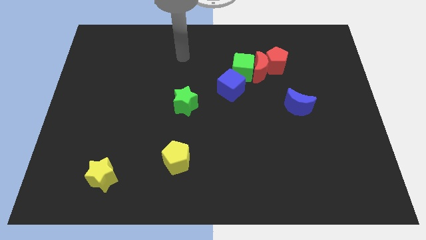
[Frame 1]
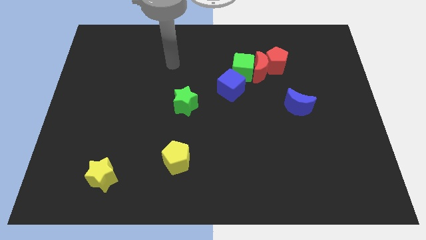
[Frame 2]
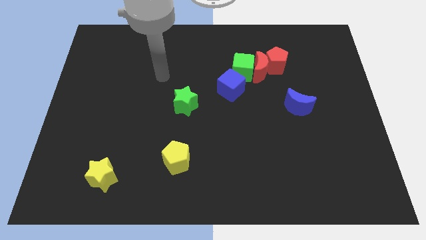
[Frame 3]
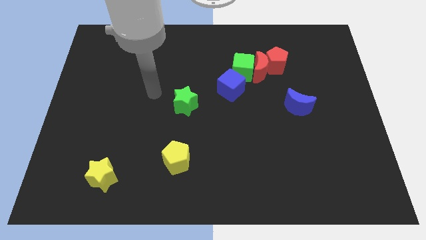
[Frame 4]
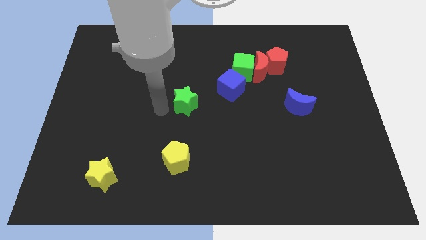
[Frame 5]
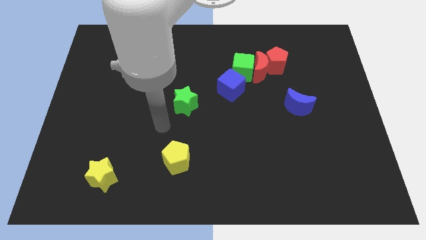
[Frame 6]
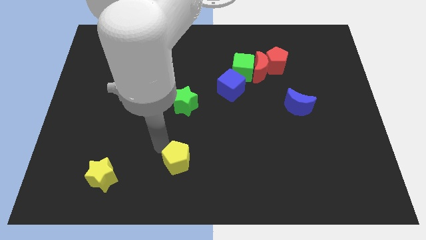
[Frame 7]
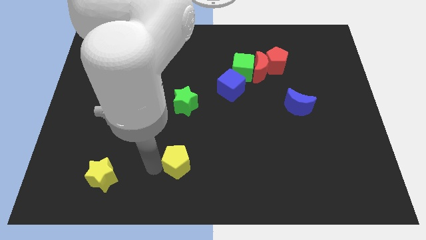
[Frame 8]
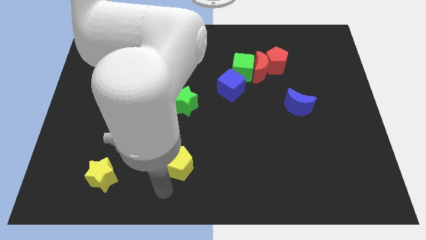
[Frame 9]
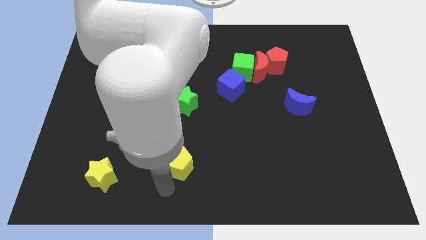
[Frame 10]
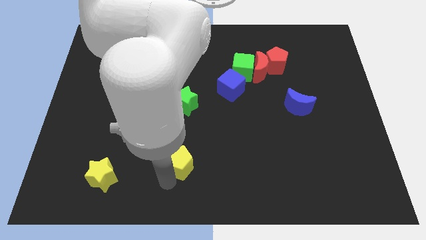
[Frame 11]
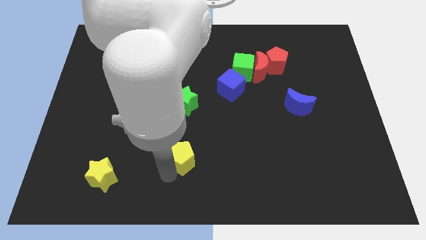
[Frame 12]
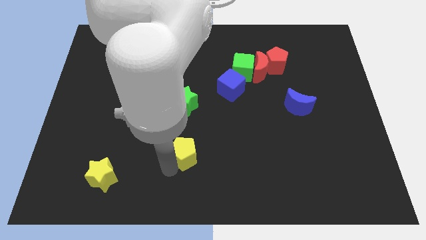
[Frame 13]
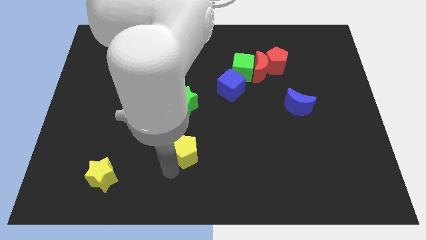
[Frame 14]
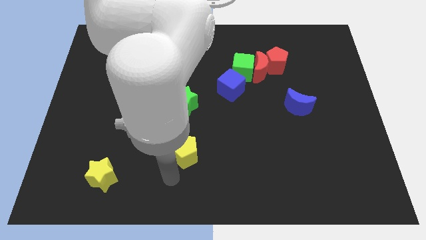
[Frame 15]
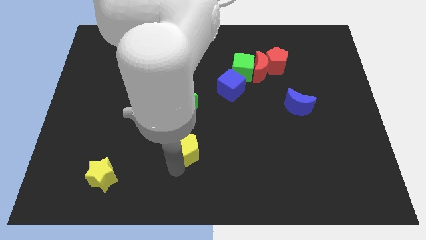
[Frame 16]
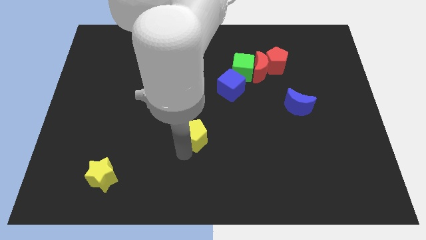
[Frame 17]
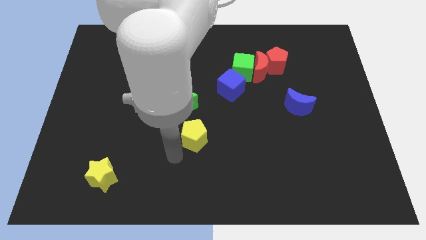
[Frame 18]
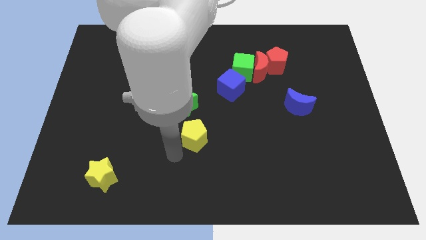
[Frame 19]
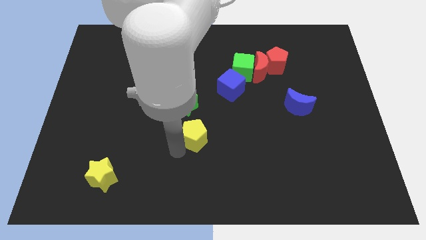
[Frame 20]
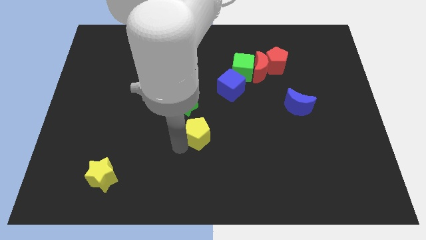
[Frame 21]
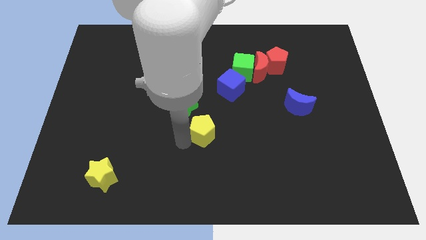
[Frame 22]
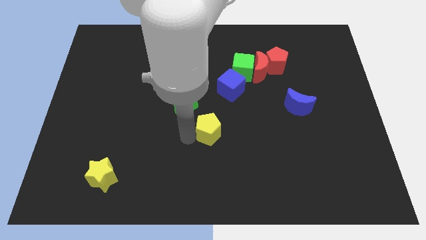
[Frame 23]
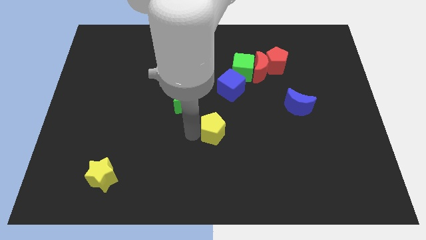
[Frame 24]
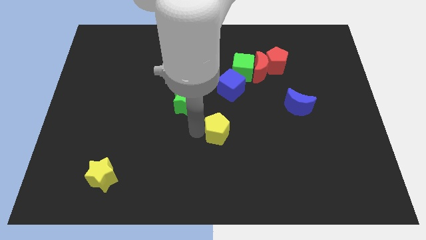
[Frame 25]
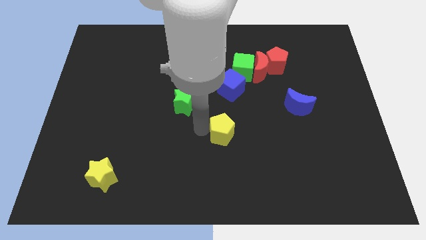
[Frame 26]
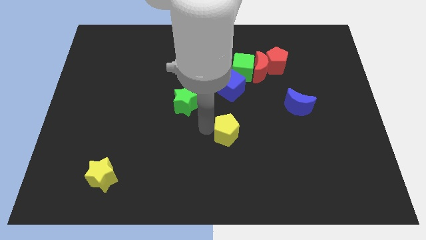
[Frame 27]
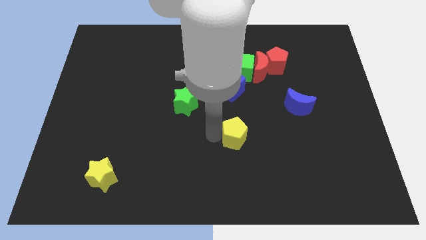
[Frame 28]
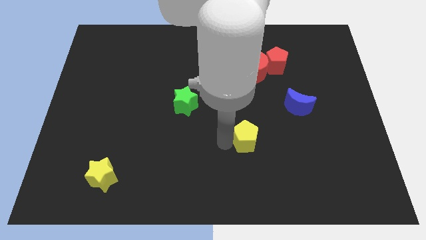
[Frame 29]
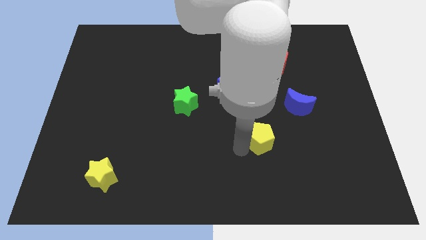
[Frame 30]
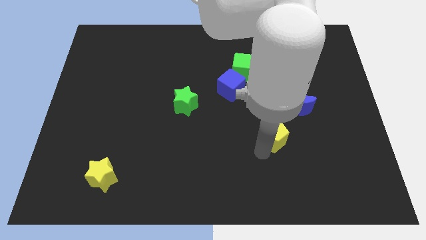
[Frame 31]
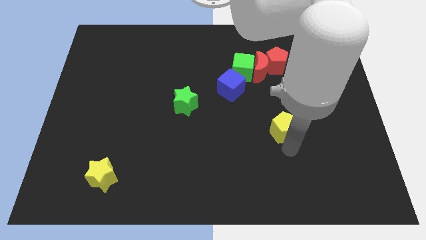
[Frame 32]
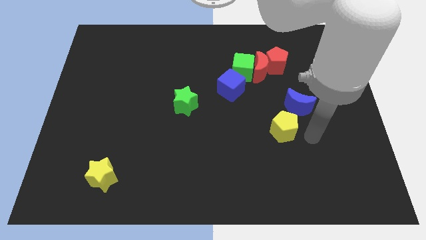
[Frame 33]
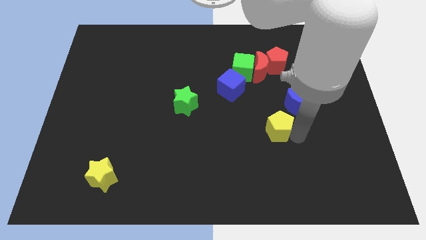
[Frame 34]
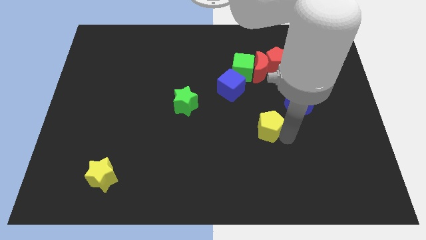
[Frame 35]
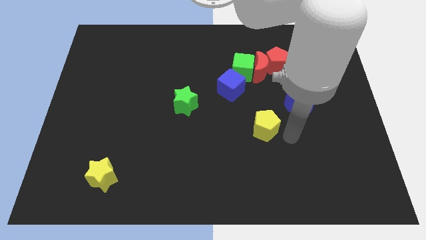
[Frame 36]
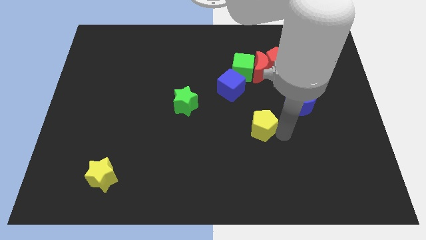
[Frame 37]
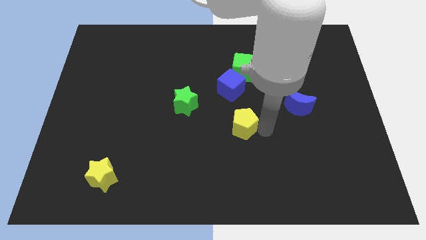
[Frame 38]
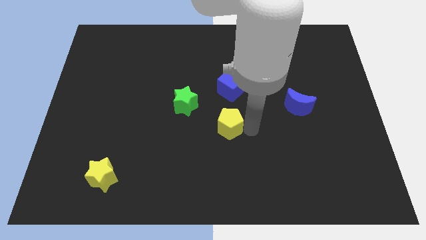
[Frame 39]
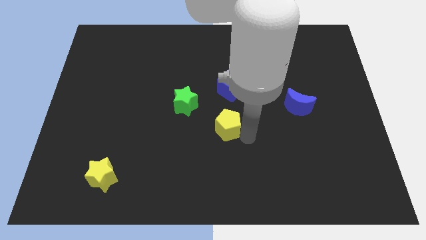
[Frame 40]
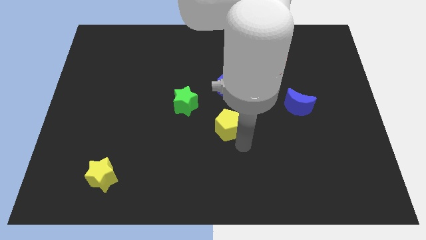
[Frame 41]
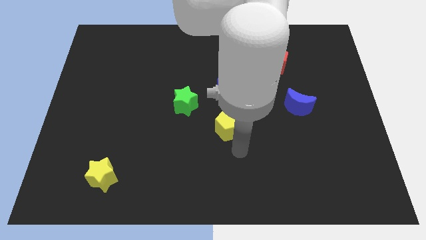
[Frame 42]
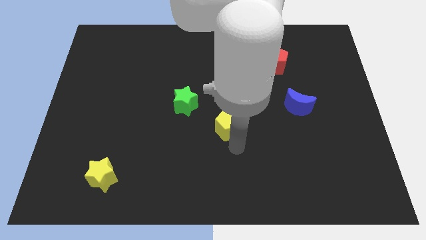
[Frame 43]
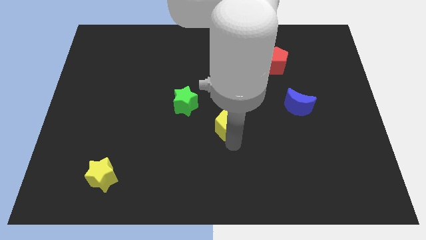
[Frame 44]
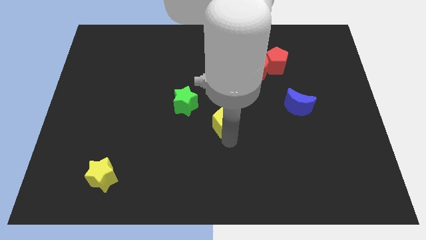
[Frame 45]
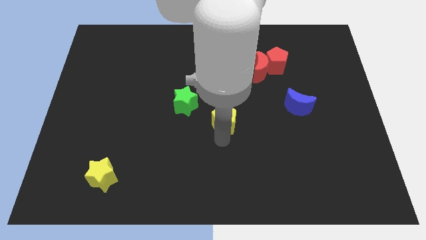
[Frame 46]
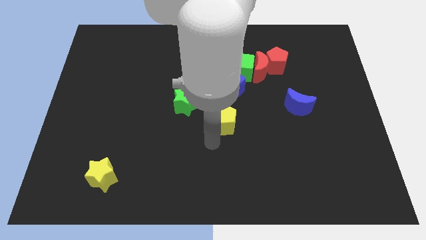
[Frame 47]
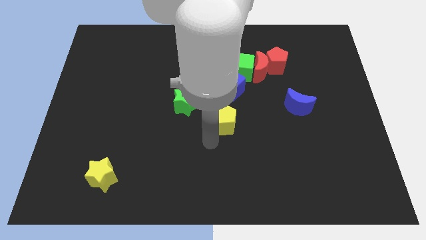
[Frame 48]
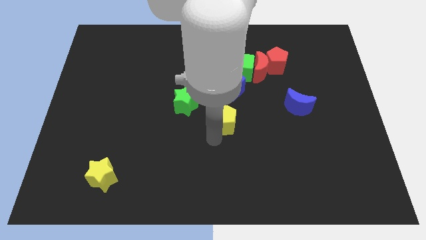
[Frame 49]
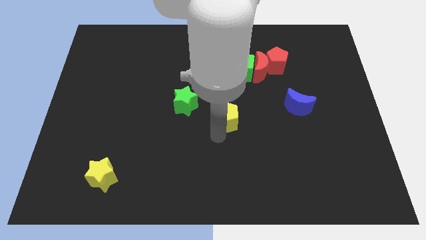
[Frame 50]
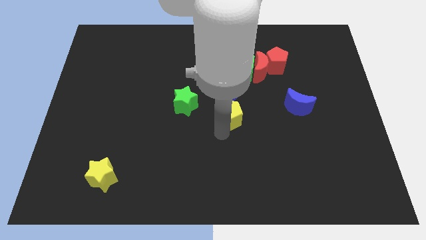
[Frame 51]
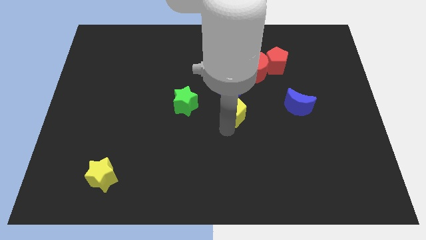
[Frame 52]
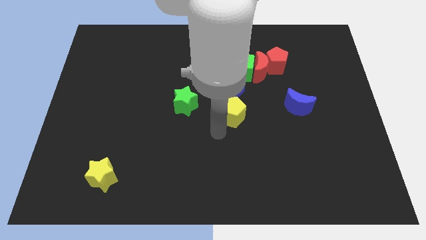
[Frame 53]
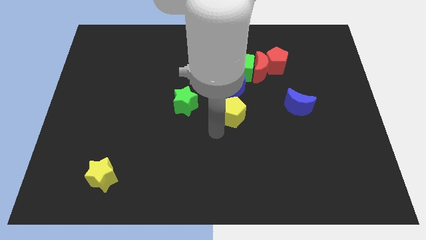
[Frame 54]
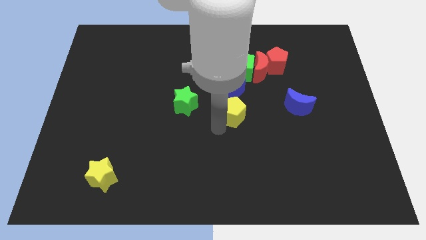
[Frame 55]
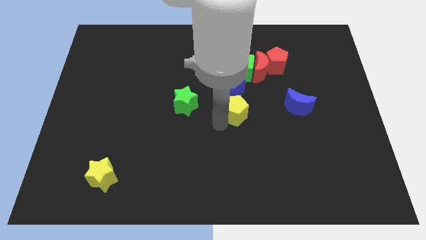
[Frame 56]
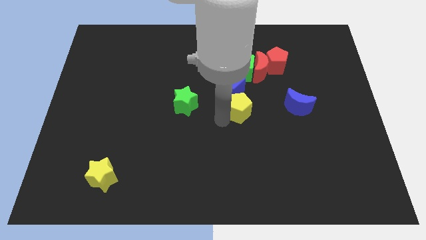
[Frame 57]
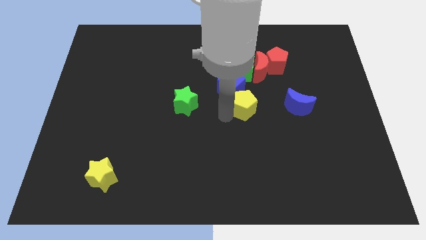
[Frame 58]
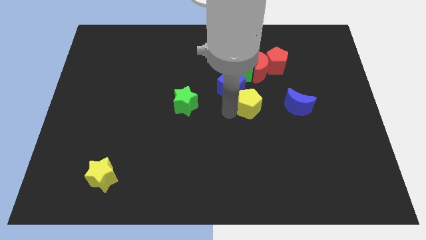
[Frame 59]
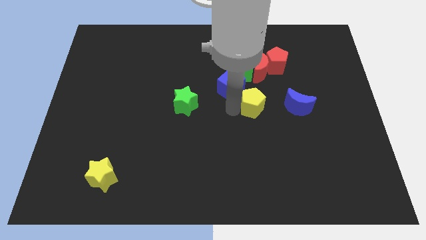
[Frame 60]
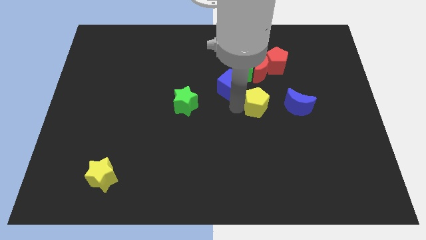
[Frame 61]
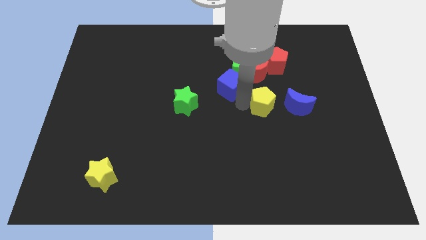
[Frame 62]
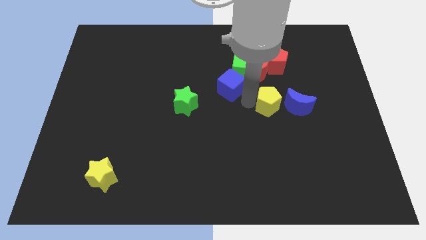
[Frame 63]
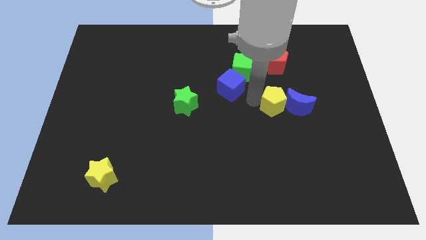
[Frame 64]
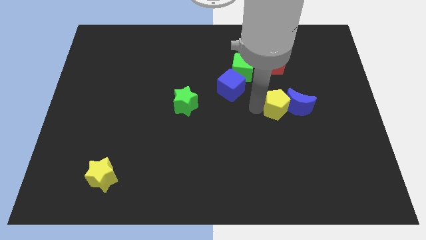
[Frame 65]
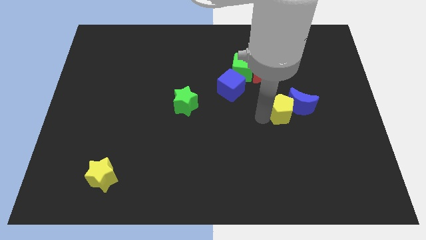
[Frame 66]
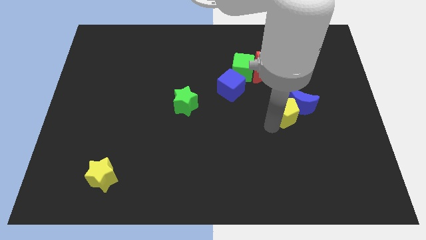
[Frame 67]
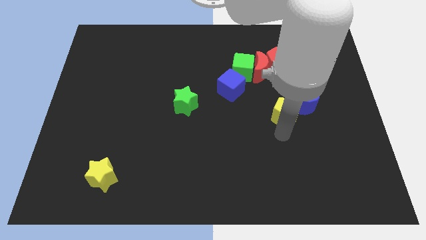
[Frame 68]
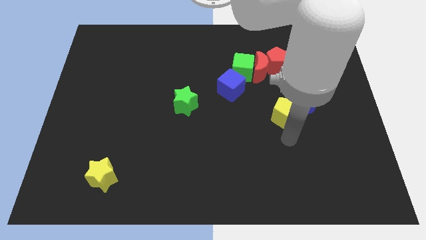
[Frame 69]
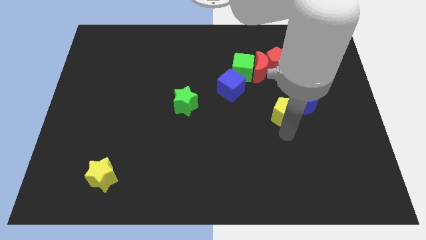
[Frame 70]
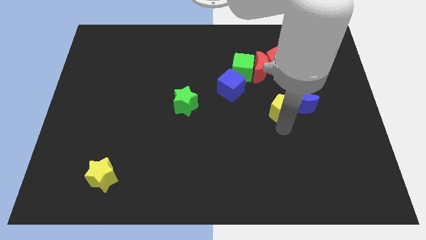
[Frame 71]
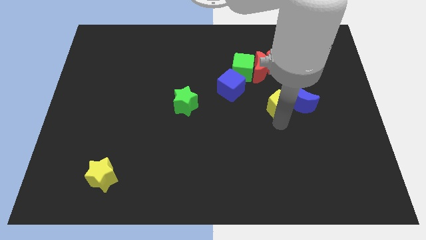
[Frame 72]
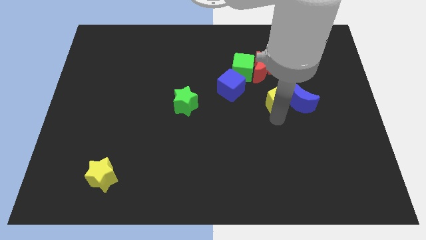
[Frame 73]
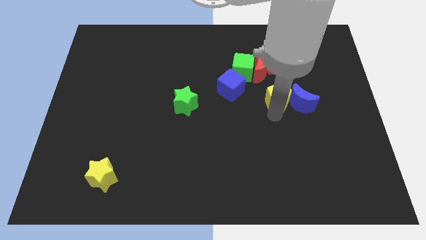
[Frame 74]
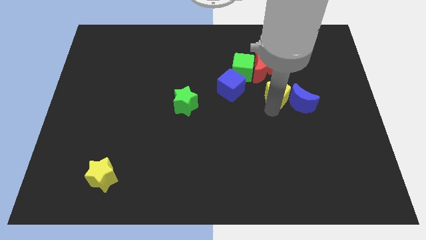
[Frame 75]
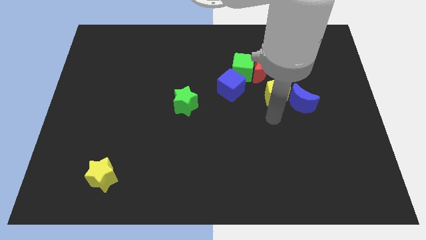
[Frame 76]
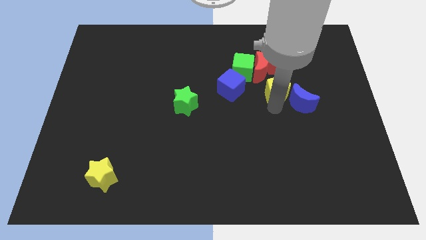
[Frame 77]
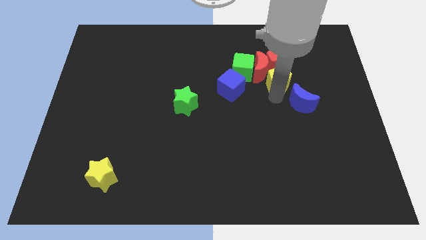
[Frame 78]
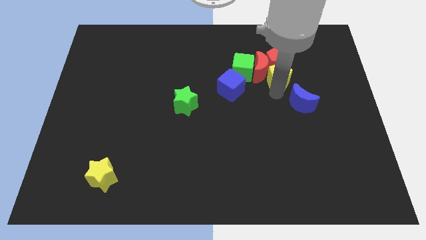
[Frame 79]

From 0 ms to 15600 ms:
put the yellow pentagon next to the red pentagon
